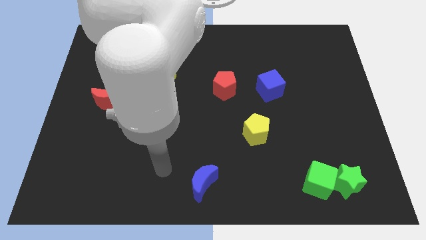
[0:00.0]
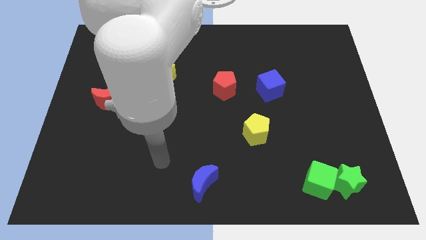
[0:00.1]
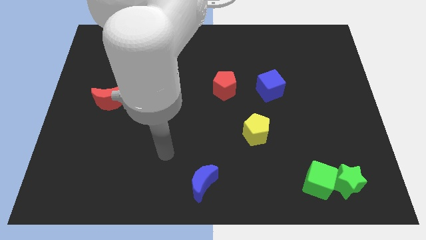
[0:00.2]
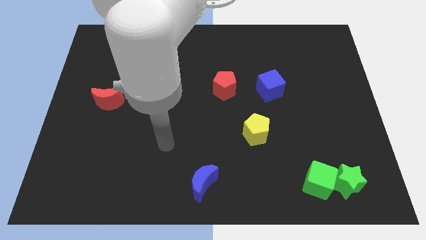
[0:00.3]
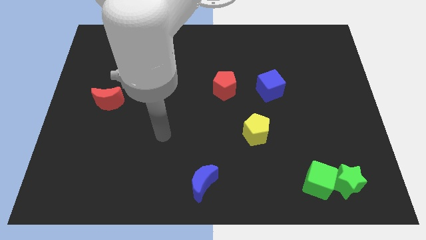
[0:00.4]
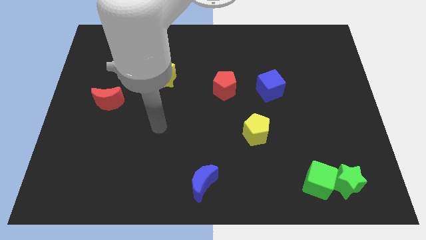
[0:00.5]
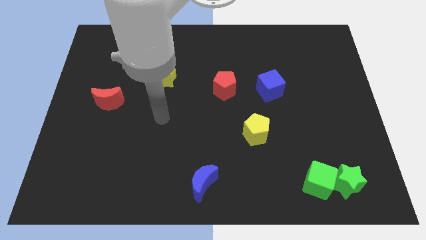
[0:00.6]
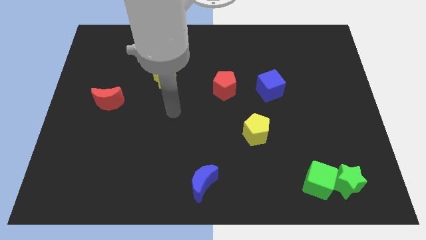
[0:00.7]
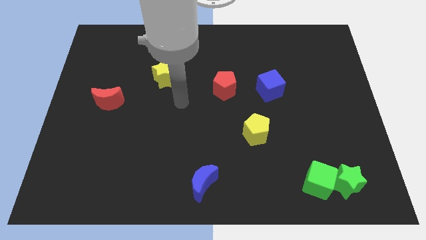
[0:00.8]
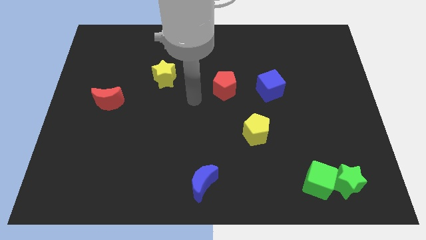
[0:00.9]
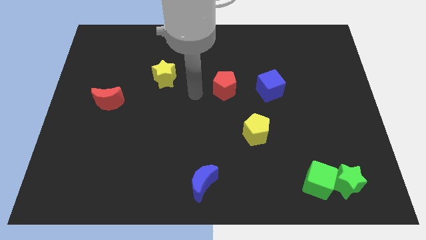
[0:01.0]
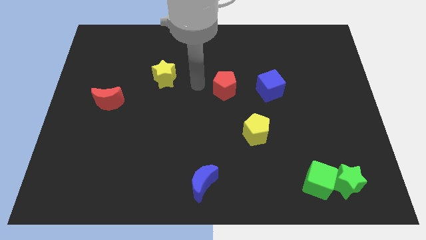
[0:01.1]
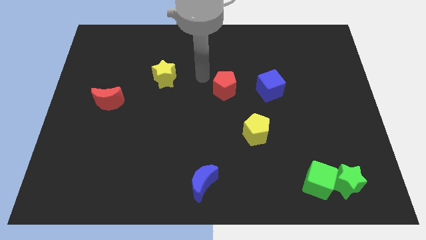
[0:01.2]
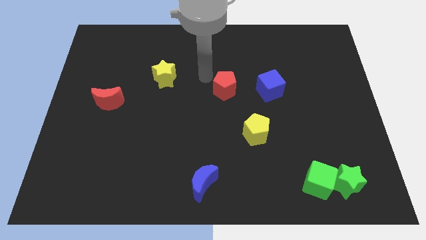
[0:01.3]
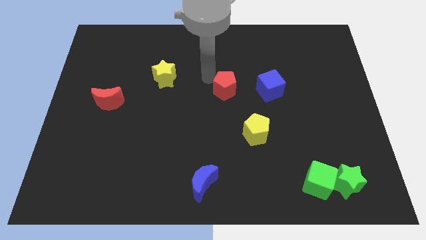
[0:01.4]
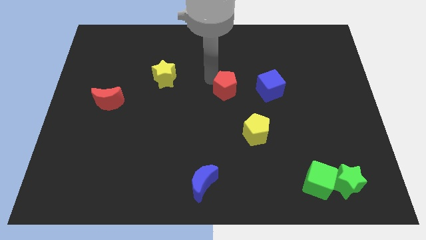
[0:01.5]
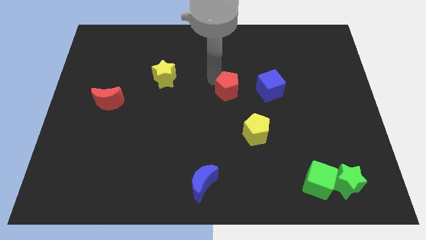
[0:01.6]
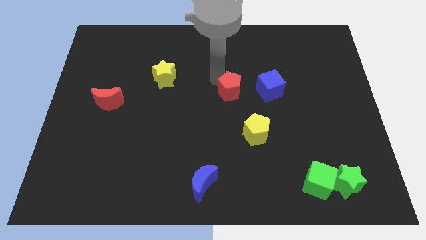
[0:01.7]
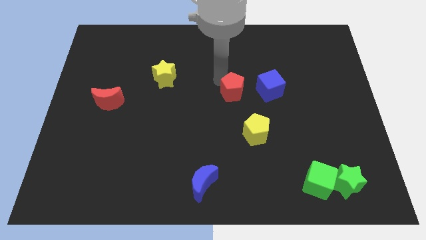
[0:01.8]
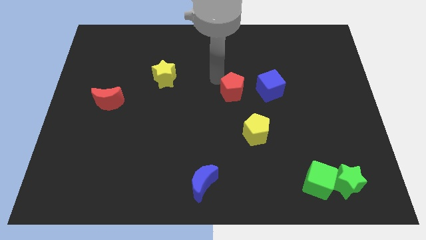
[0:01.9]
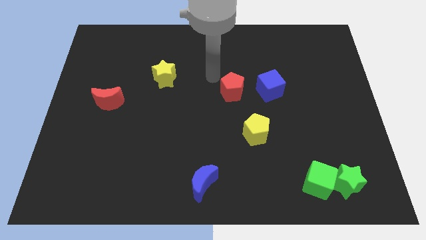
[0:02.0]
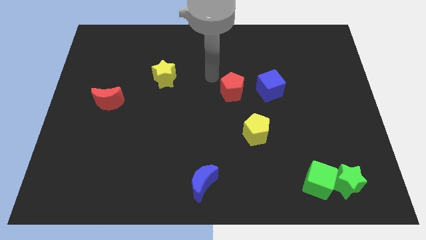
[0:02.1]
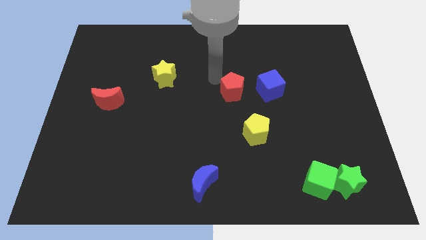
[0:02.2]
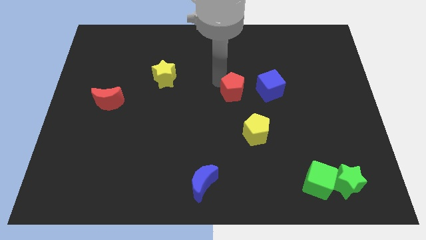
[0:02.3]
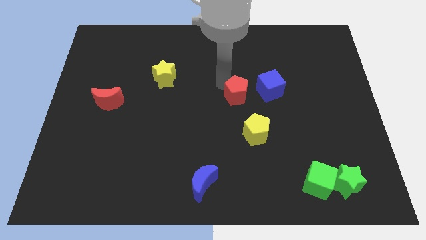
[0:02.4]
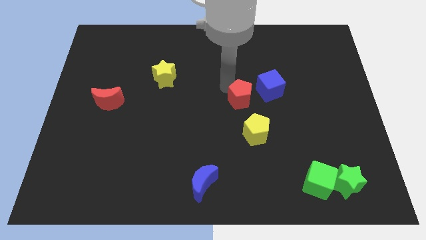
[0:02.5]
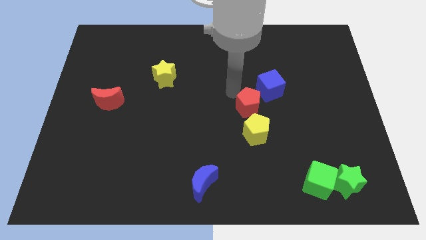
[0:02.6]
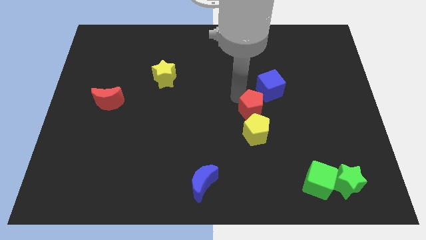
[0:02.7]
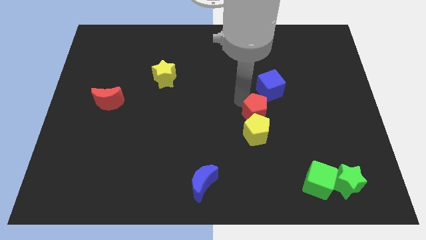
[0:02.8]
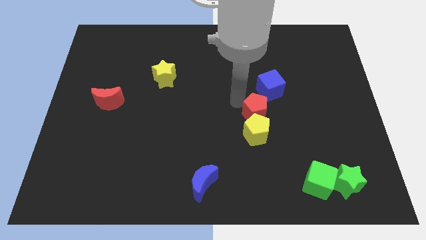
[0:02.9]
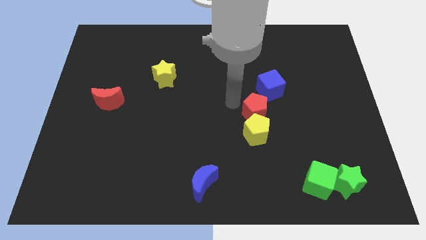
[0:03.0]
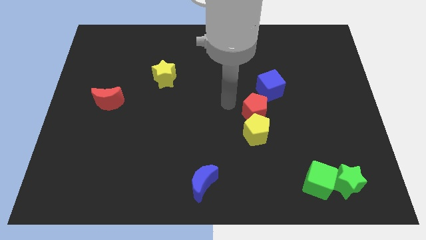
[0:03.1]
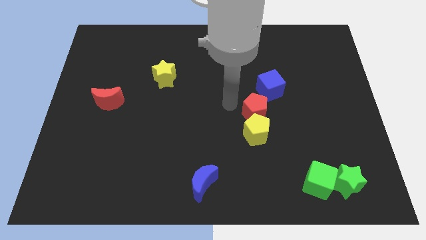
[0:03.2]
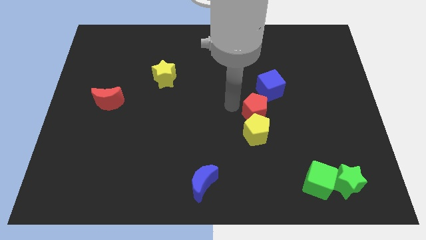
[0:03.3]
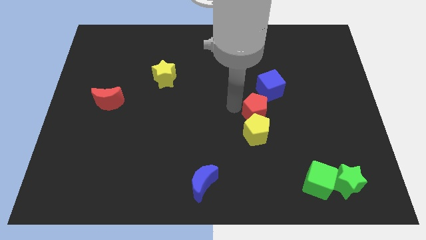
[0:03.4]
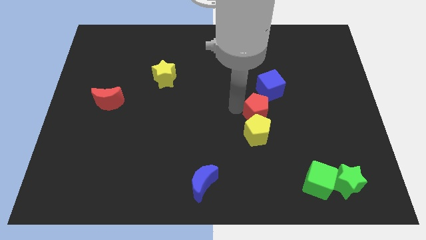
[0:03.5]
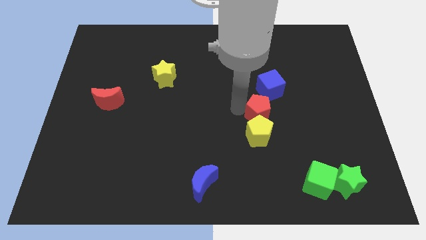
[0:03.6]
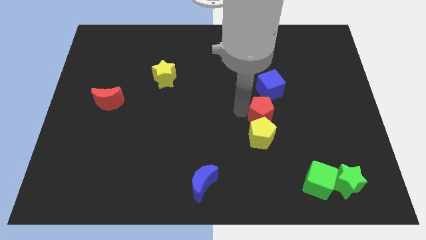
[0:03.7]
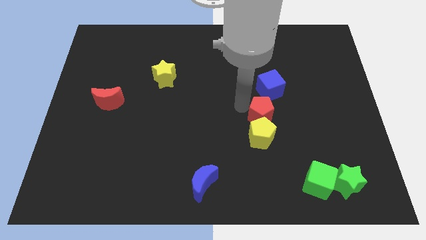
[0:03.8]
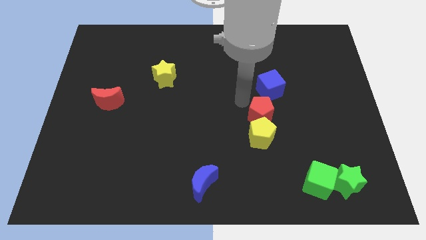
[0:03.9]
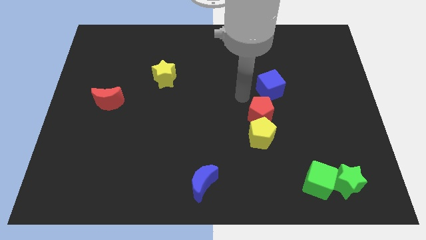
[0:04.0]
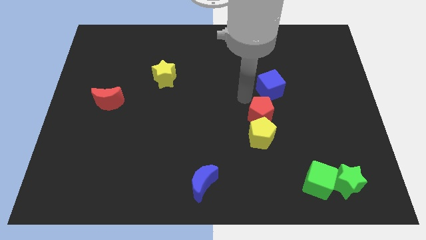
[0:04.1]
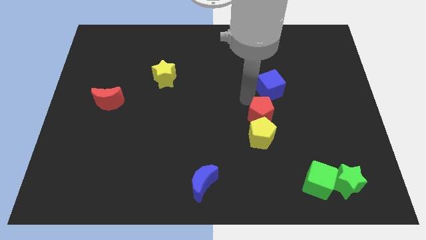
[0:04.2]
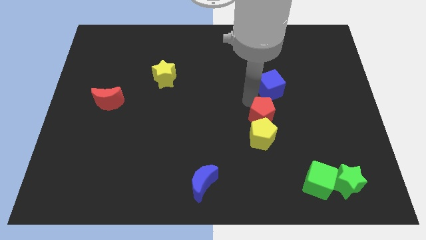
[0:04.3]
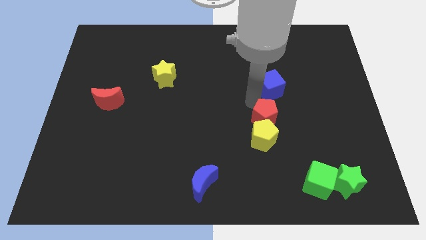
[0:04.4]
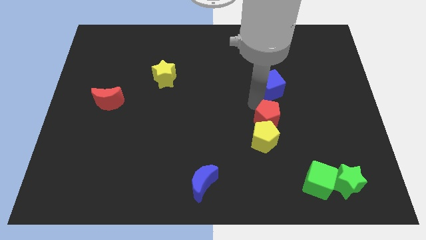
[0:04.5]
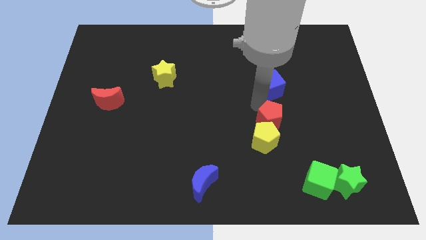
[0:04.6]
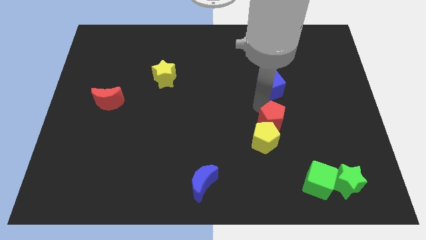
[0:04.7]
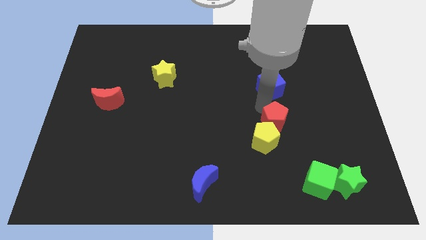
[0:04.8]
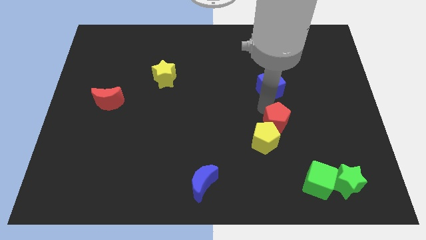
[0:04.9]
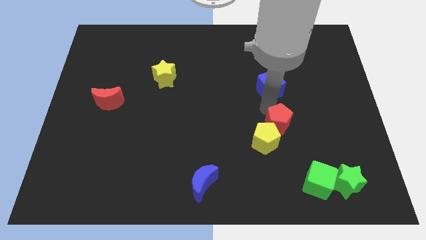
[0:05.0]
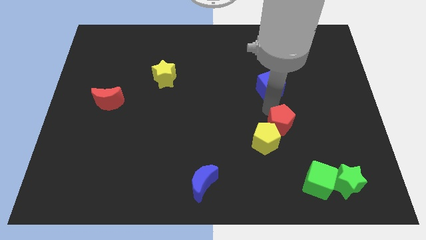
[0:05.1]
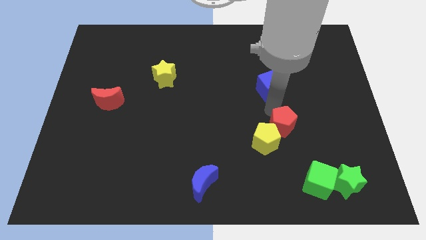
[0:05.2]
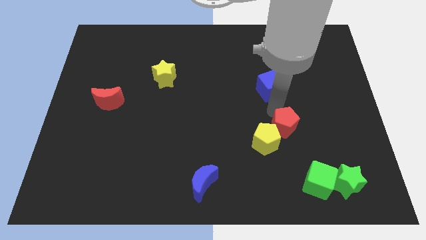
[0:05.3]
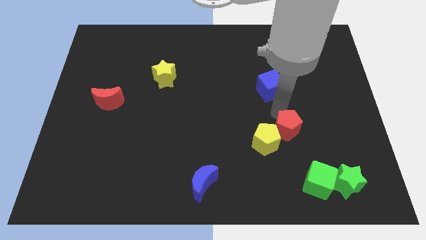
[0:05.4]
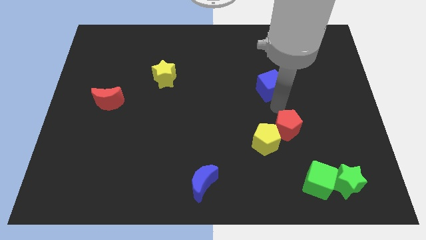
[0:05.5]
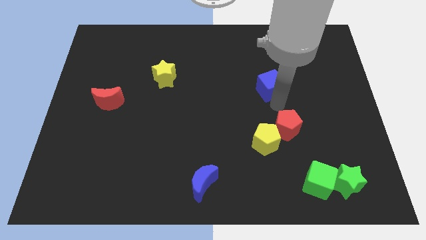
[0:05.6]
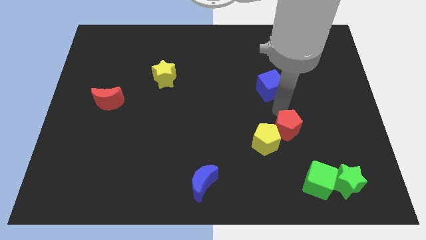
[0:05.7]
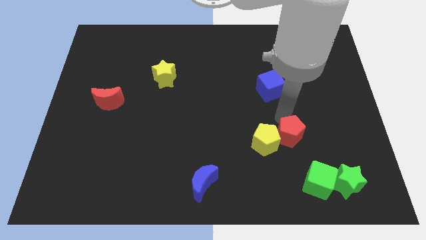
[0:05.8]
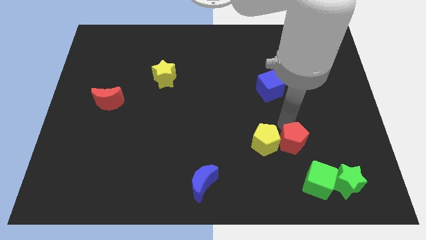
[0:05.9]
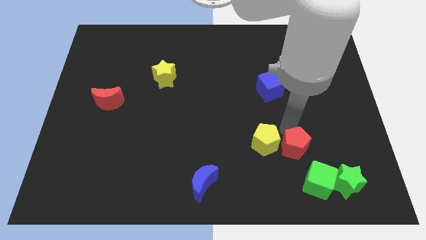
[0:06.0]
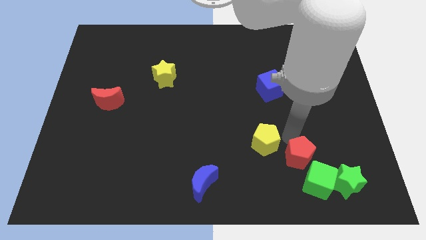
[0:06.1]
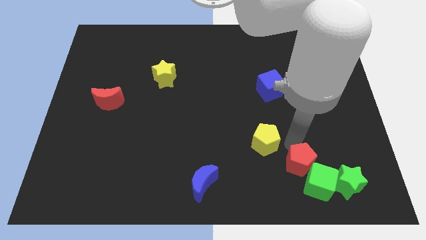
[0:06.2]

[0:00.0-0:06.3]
put the red pentagon to the green cube

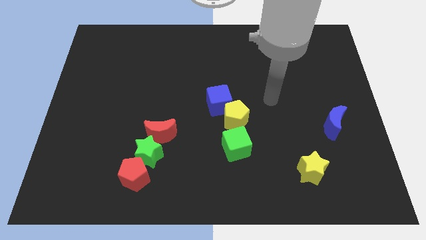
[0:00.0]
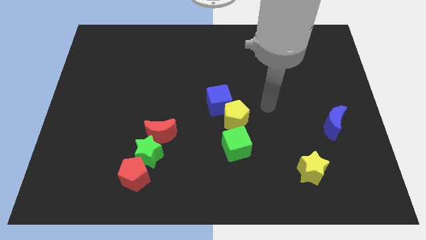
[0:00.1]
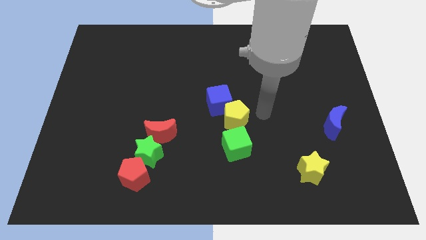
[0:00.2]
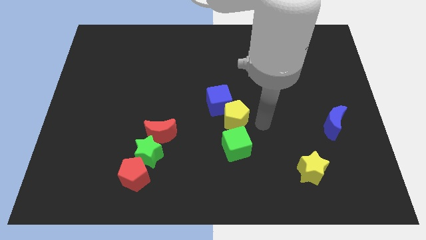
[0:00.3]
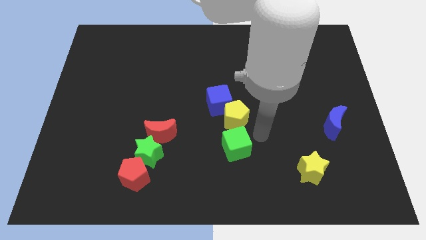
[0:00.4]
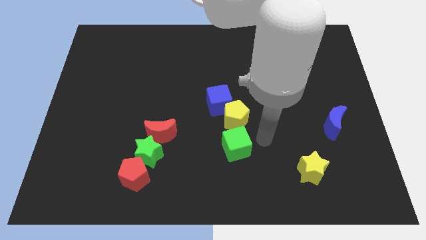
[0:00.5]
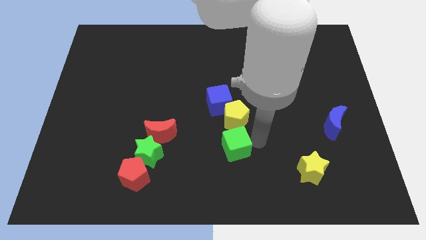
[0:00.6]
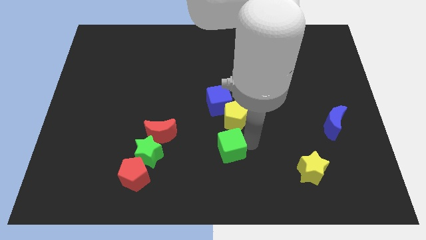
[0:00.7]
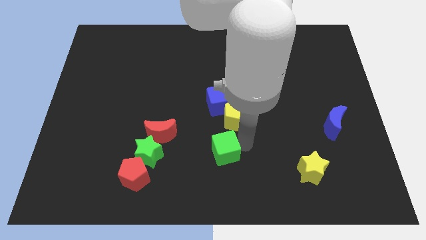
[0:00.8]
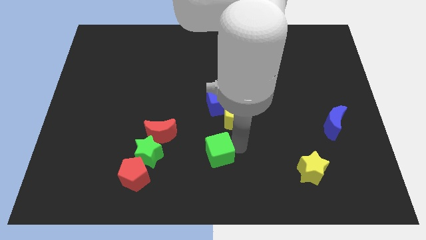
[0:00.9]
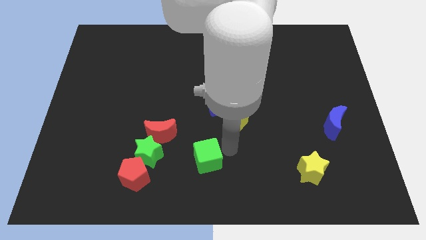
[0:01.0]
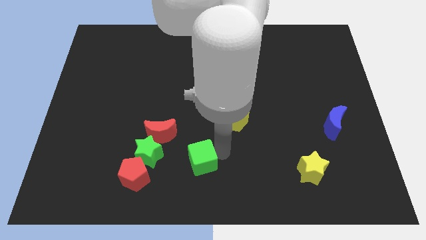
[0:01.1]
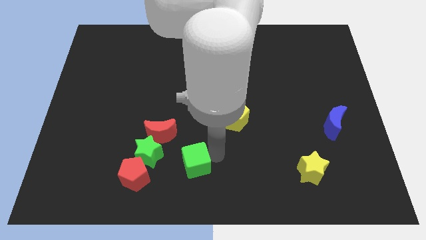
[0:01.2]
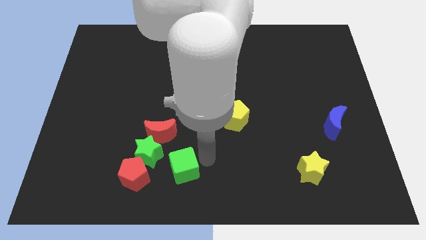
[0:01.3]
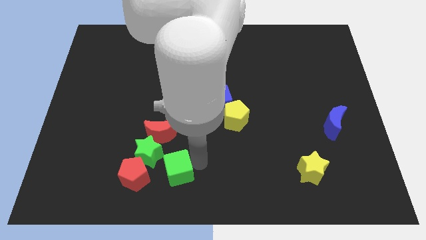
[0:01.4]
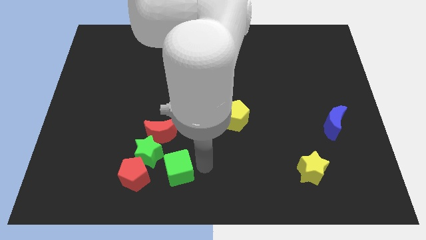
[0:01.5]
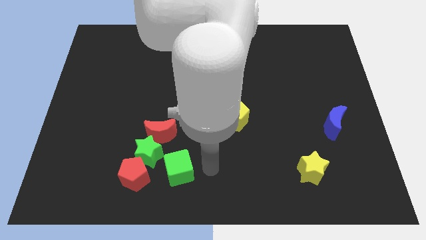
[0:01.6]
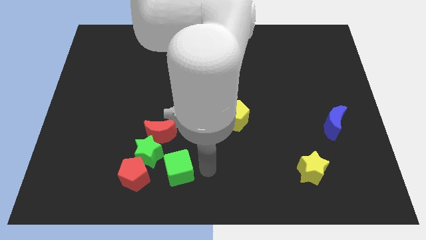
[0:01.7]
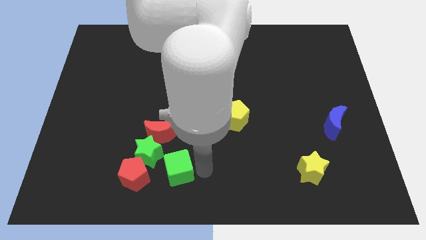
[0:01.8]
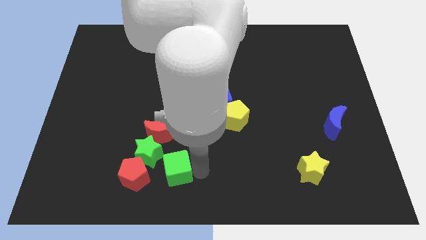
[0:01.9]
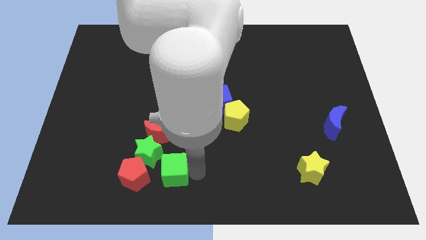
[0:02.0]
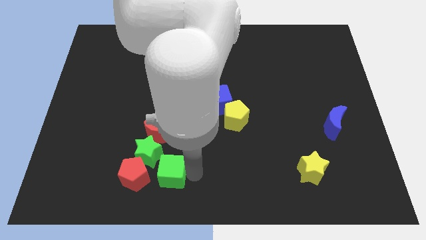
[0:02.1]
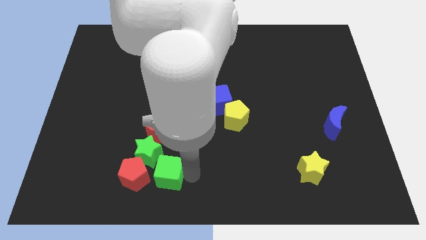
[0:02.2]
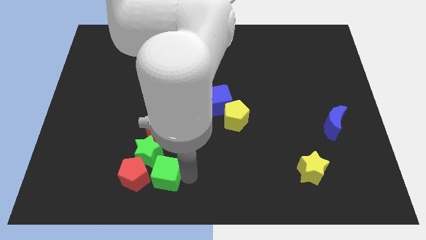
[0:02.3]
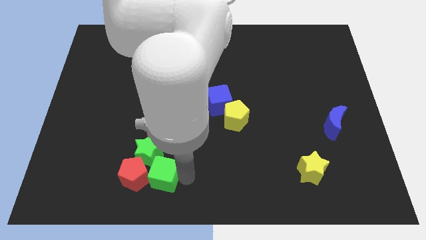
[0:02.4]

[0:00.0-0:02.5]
move the green cube close to the red pentagon
